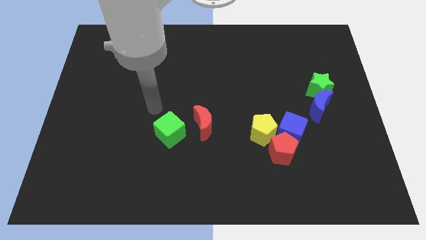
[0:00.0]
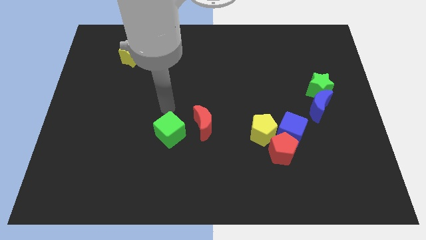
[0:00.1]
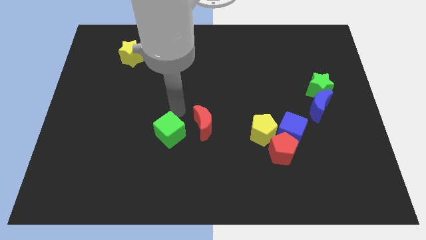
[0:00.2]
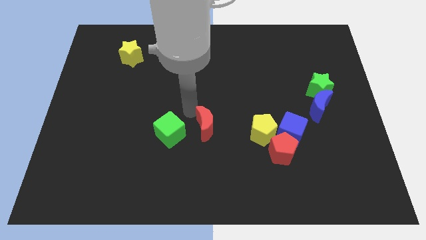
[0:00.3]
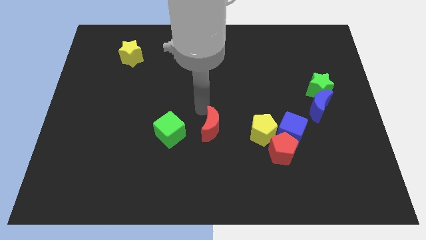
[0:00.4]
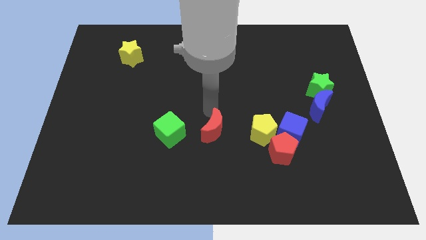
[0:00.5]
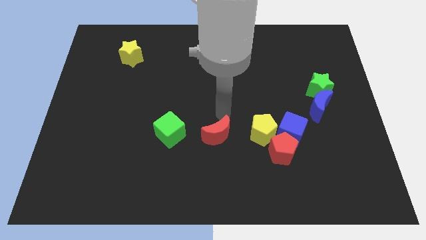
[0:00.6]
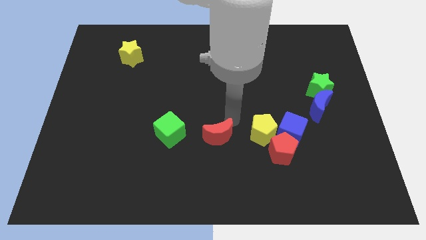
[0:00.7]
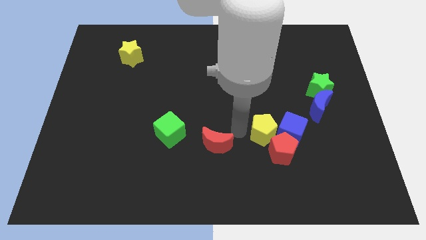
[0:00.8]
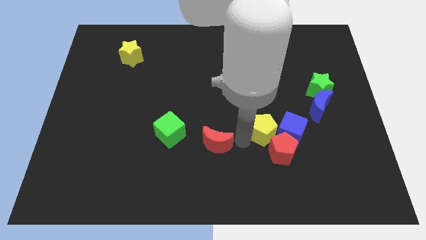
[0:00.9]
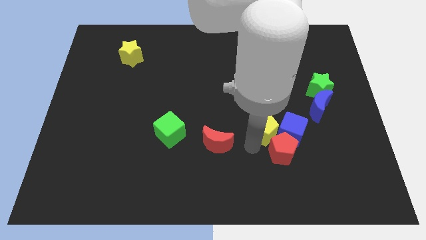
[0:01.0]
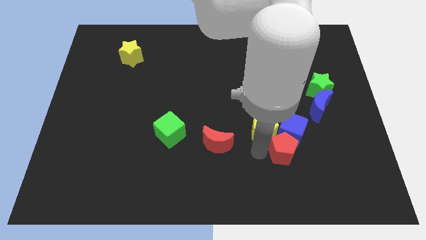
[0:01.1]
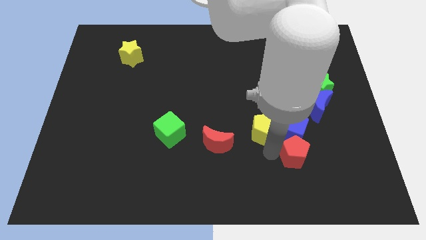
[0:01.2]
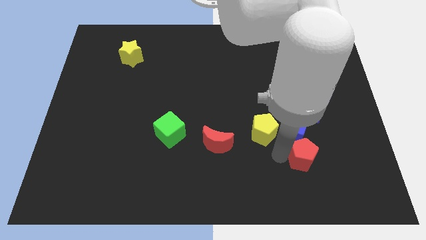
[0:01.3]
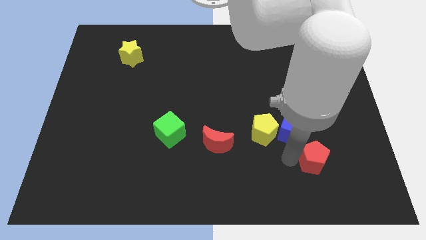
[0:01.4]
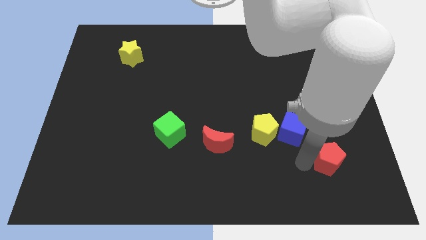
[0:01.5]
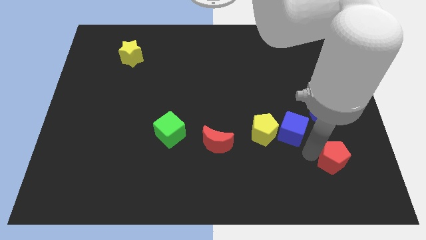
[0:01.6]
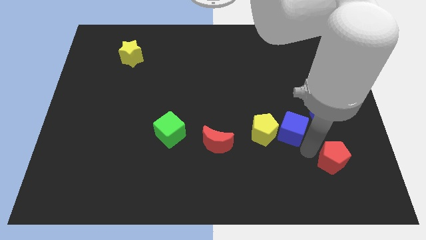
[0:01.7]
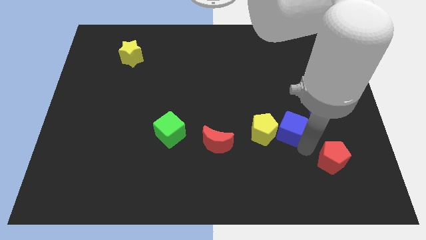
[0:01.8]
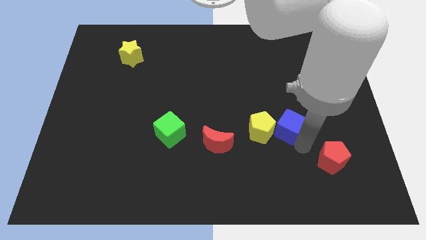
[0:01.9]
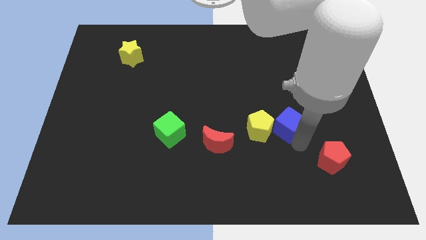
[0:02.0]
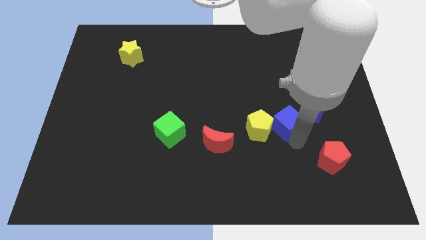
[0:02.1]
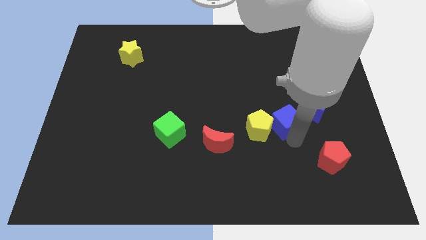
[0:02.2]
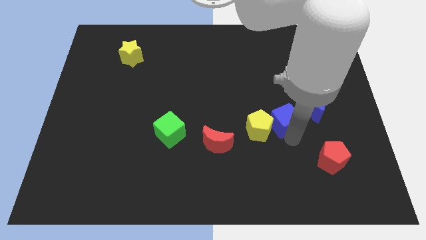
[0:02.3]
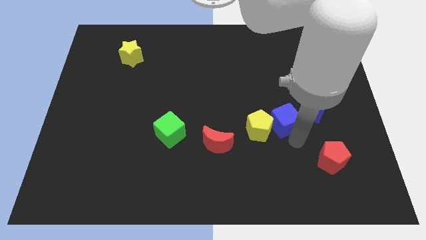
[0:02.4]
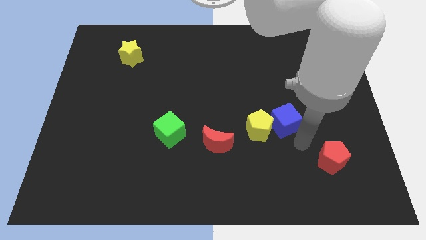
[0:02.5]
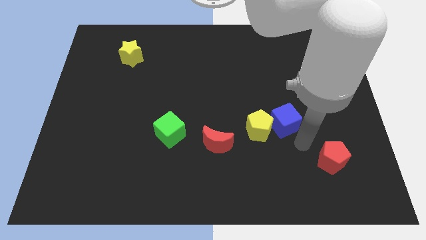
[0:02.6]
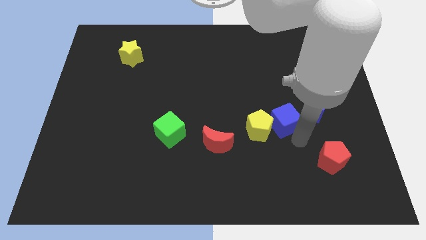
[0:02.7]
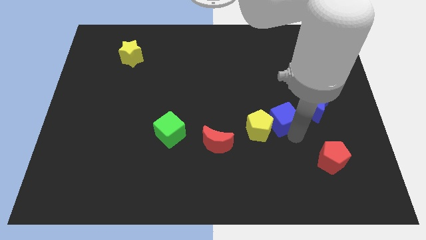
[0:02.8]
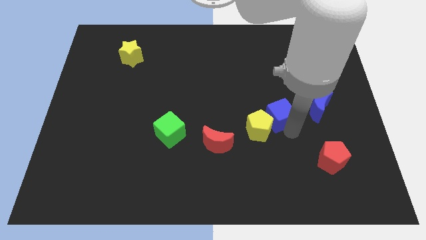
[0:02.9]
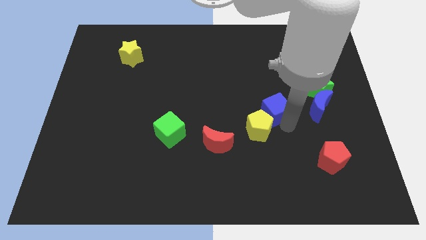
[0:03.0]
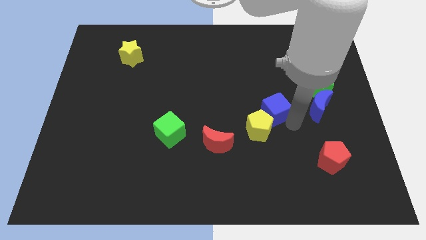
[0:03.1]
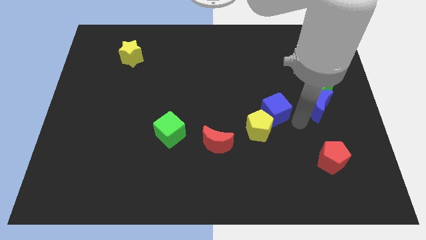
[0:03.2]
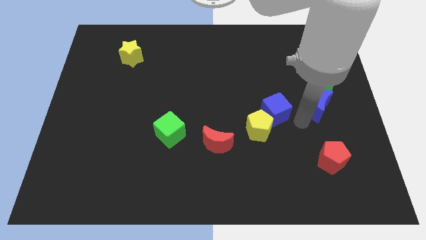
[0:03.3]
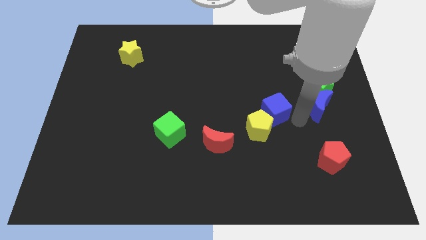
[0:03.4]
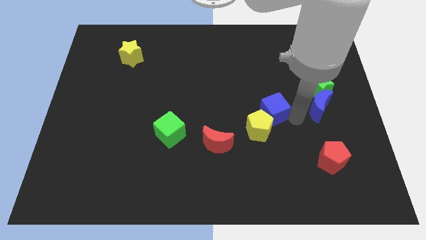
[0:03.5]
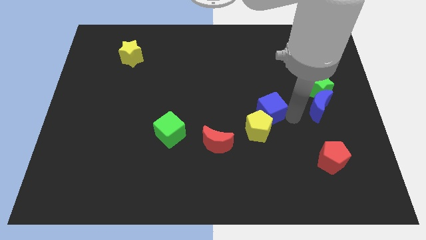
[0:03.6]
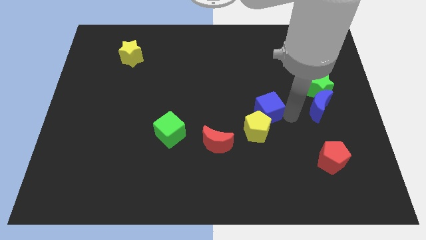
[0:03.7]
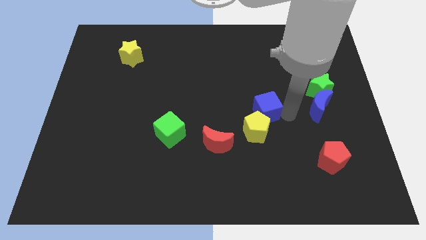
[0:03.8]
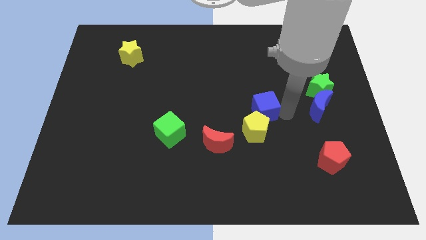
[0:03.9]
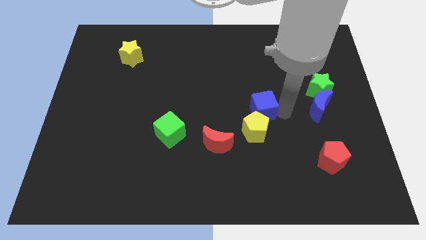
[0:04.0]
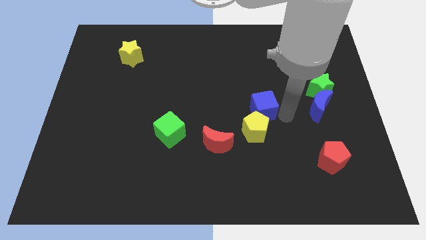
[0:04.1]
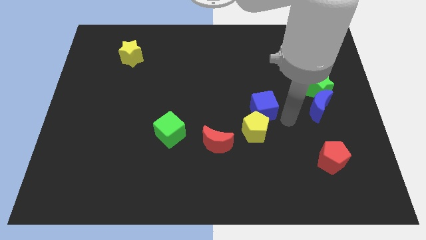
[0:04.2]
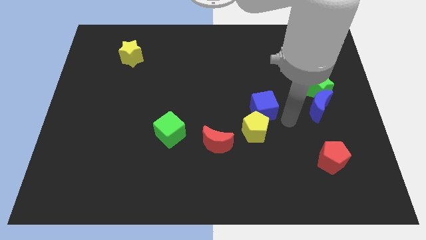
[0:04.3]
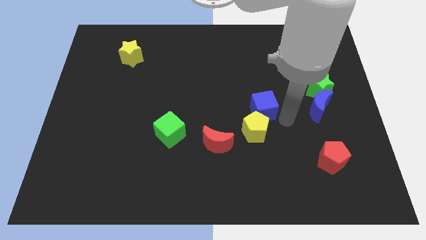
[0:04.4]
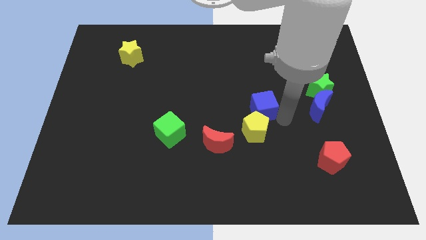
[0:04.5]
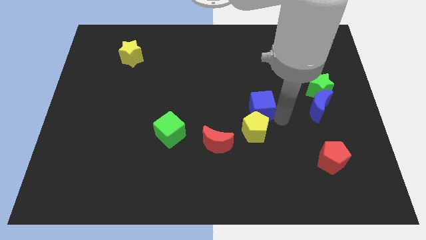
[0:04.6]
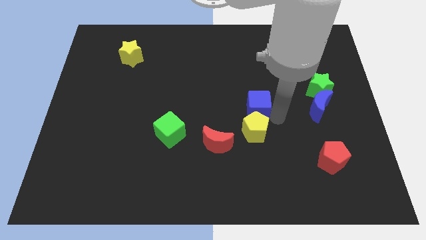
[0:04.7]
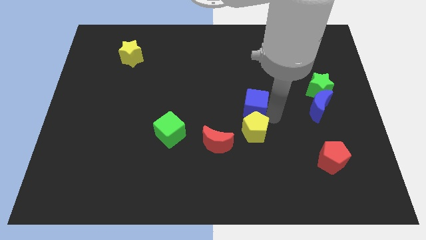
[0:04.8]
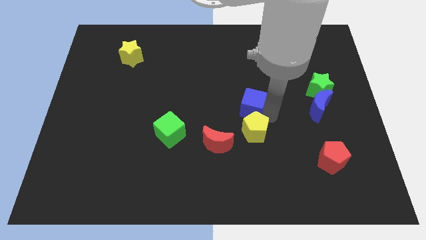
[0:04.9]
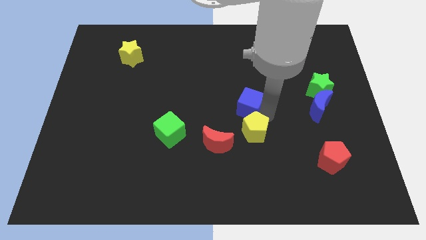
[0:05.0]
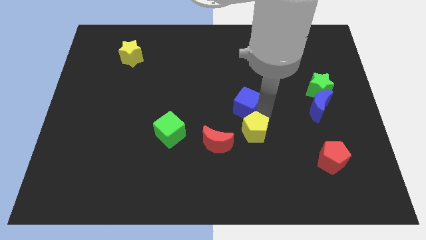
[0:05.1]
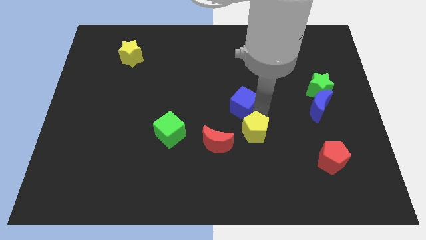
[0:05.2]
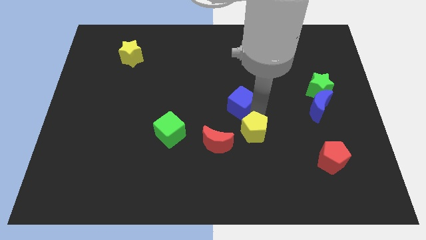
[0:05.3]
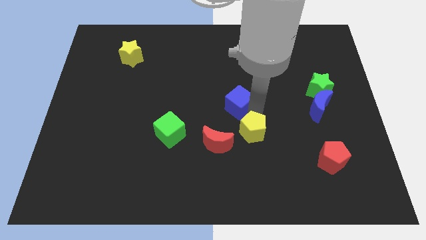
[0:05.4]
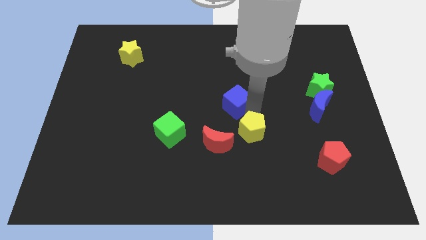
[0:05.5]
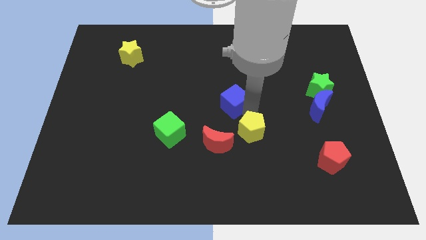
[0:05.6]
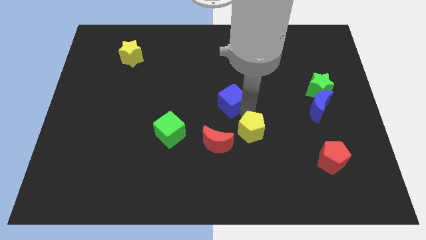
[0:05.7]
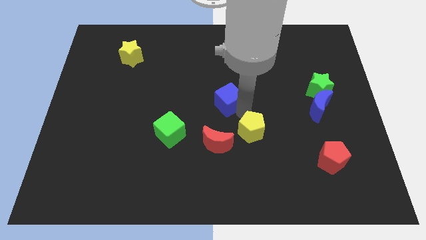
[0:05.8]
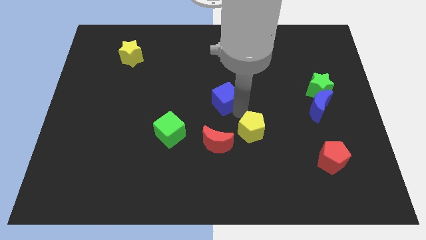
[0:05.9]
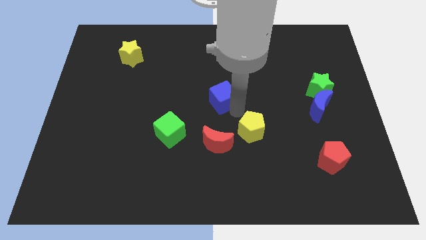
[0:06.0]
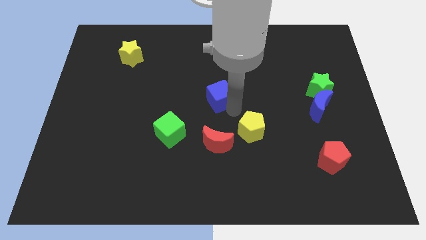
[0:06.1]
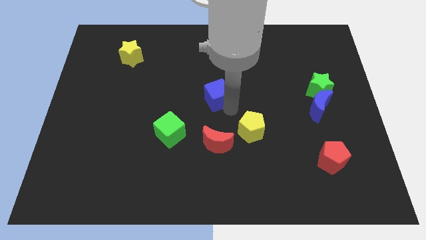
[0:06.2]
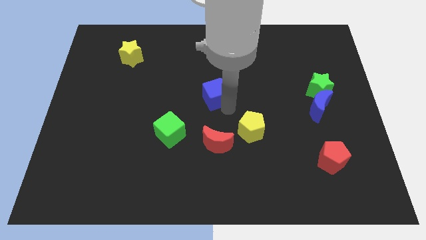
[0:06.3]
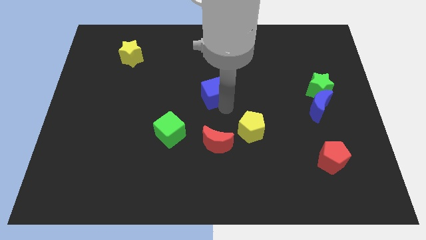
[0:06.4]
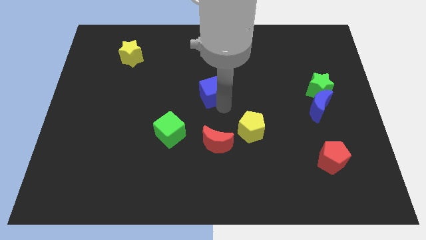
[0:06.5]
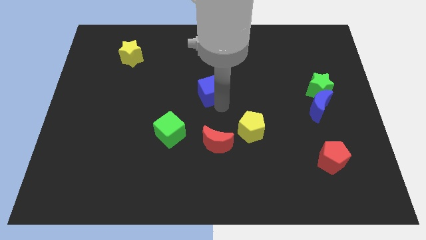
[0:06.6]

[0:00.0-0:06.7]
slide the blue cube upwards and then left

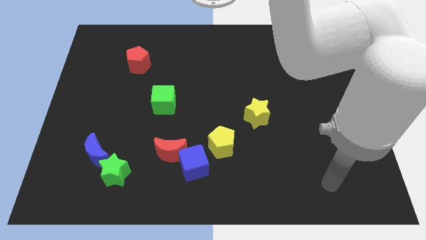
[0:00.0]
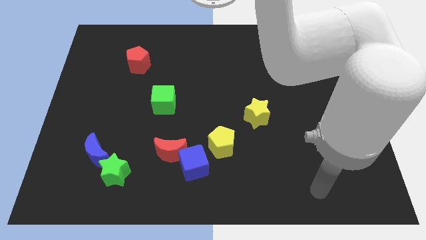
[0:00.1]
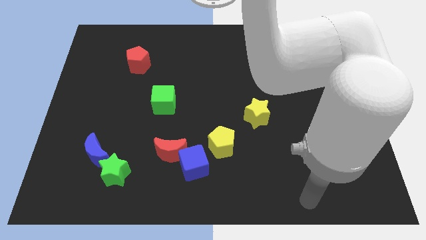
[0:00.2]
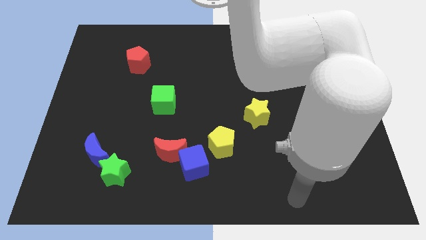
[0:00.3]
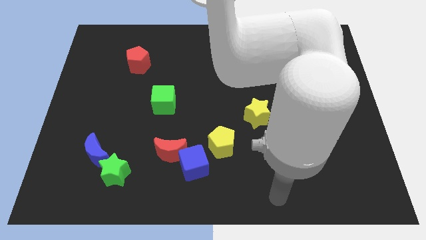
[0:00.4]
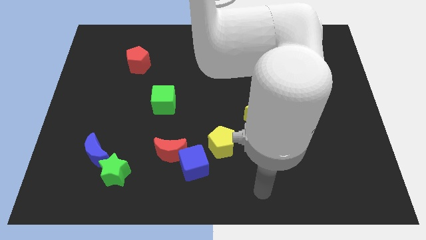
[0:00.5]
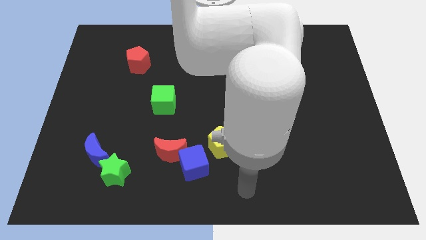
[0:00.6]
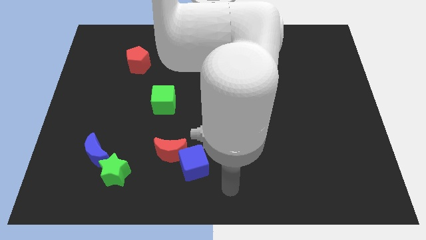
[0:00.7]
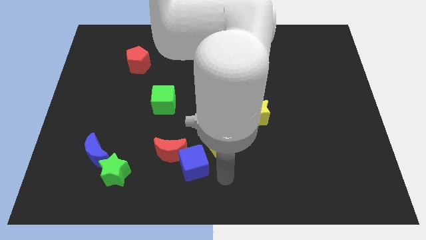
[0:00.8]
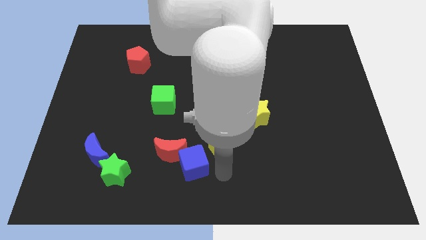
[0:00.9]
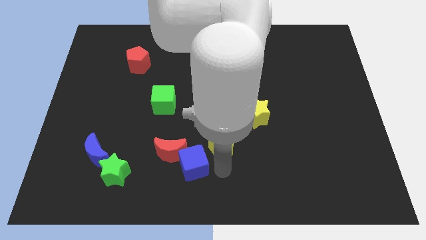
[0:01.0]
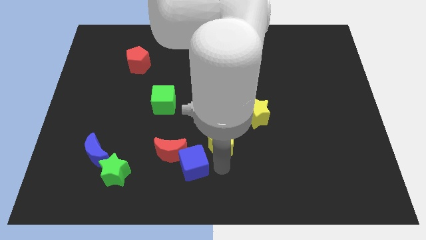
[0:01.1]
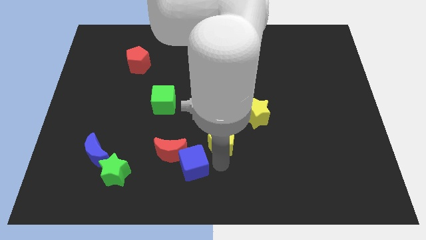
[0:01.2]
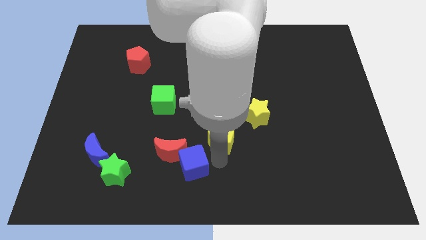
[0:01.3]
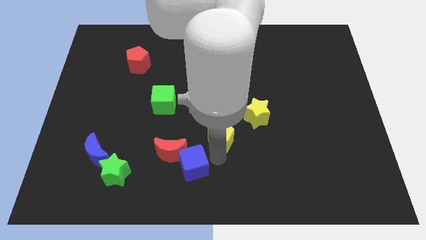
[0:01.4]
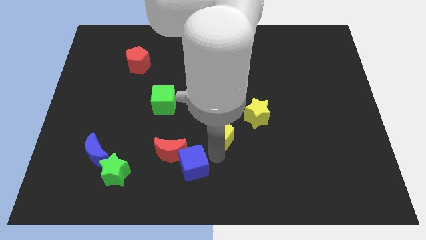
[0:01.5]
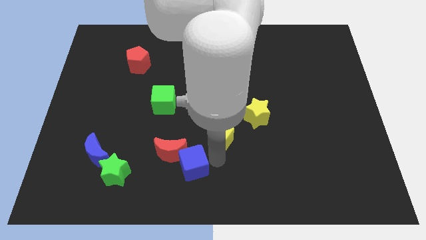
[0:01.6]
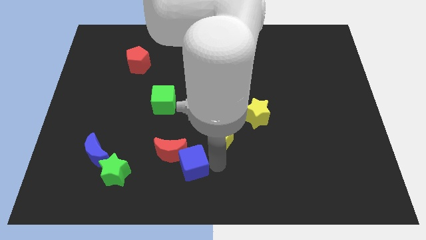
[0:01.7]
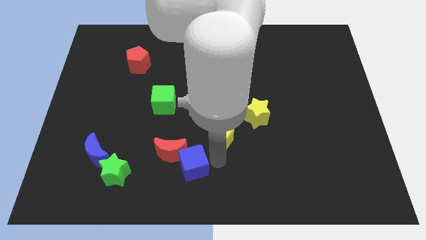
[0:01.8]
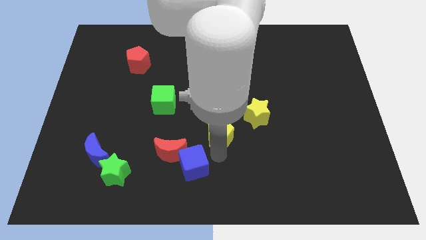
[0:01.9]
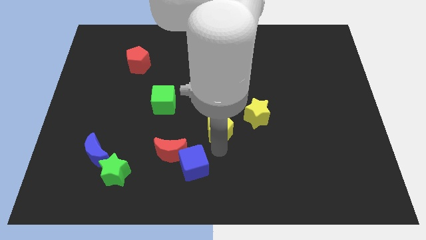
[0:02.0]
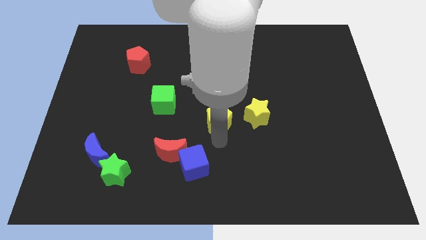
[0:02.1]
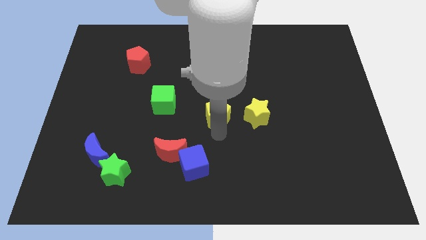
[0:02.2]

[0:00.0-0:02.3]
move the yellow pentagon somewhat up
